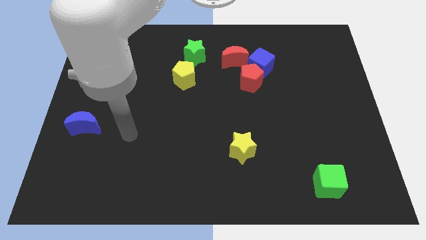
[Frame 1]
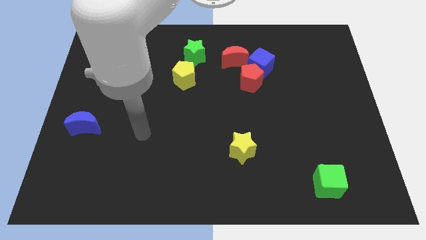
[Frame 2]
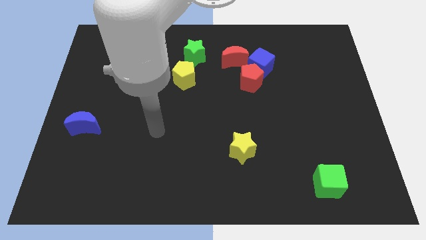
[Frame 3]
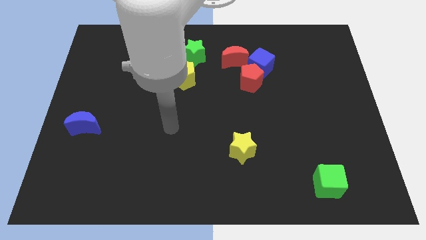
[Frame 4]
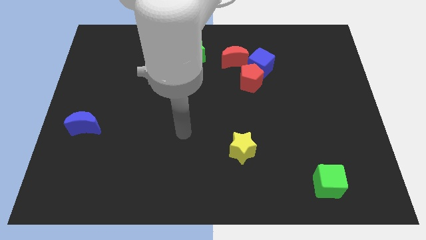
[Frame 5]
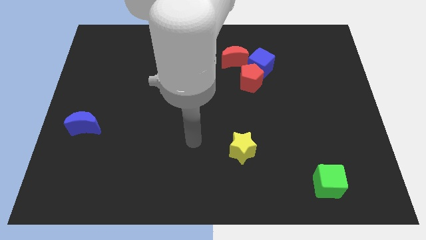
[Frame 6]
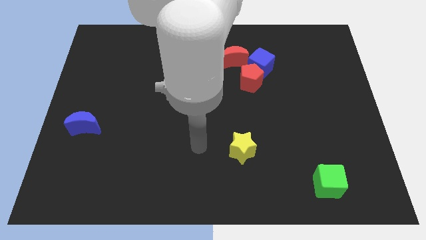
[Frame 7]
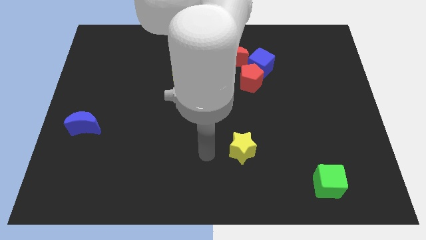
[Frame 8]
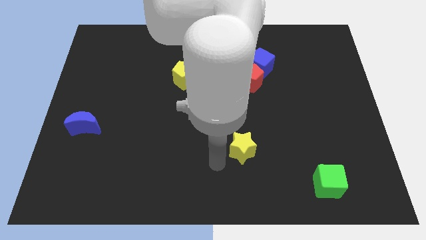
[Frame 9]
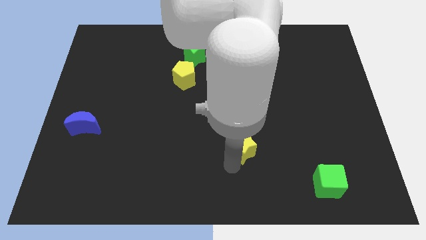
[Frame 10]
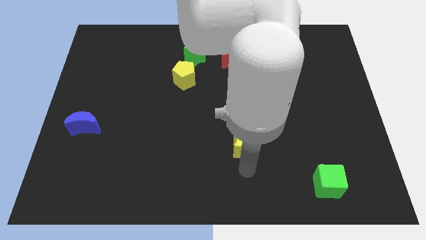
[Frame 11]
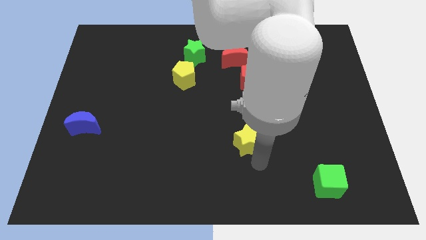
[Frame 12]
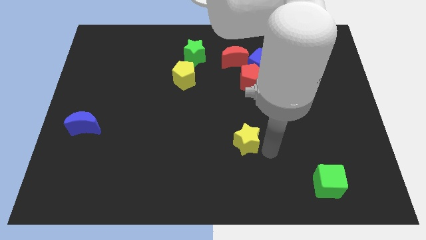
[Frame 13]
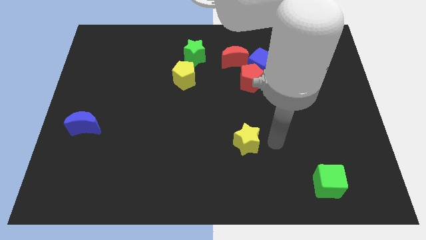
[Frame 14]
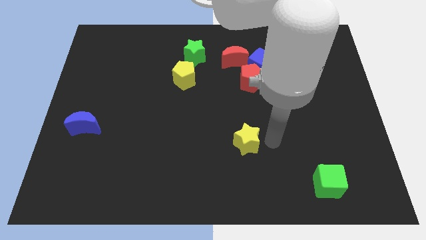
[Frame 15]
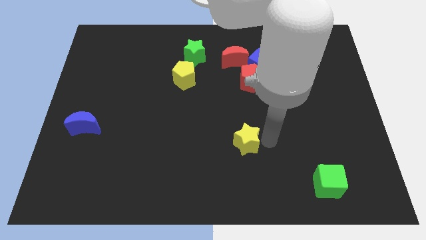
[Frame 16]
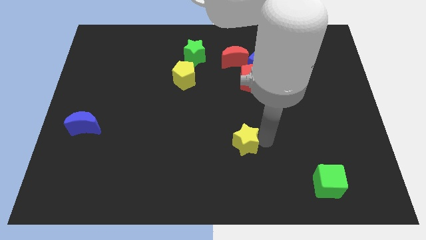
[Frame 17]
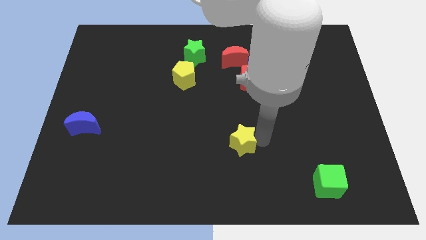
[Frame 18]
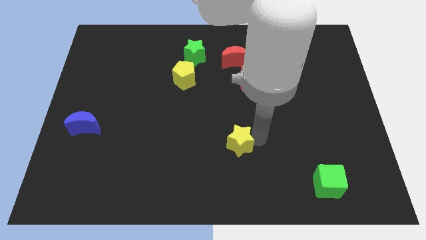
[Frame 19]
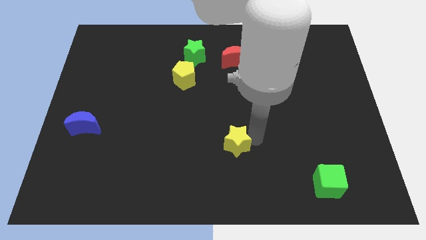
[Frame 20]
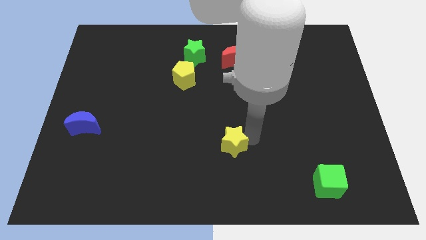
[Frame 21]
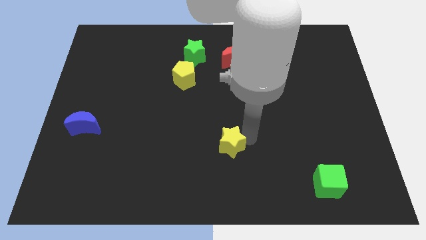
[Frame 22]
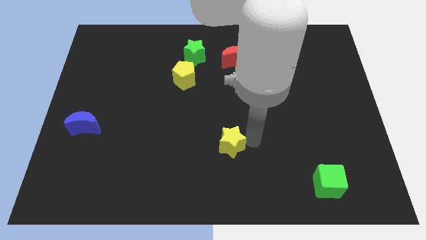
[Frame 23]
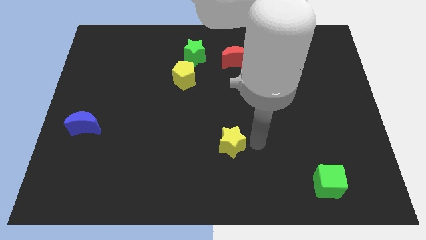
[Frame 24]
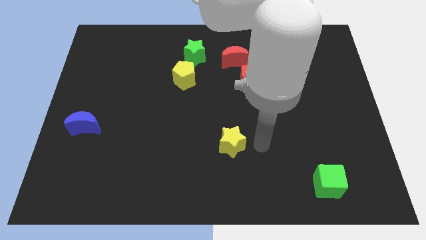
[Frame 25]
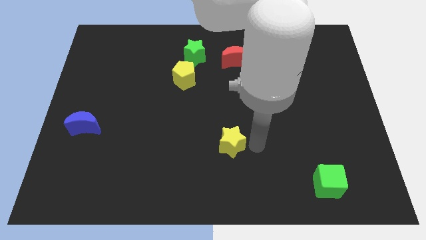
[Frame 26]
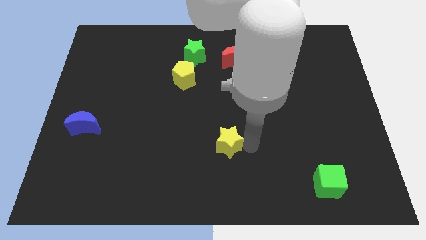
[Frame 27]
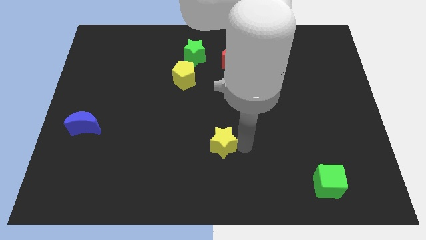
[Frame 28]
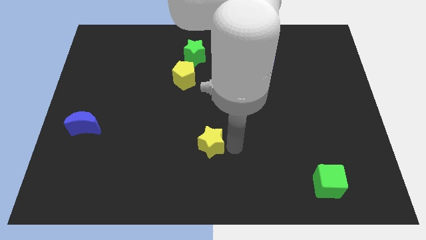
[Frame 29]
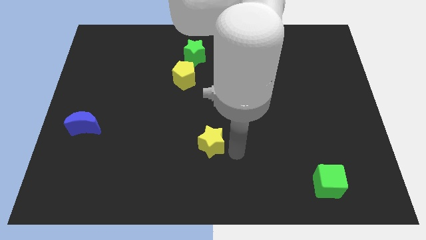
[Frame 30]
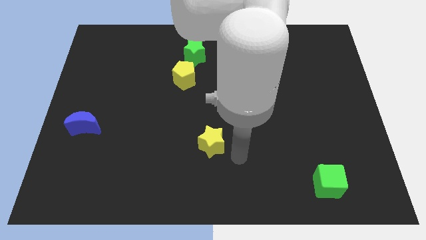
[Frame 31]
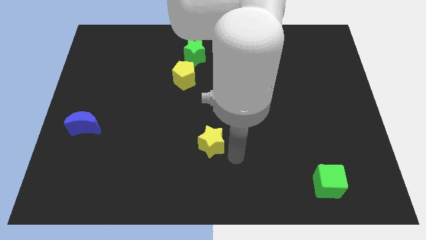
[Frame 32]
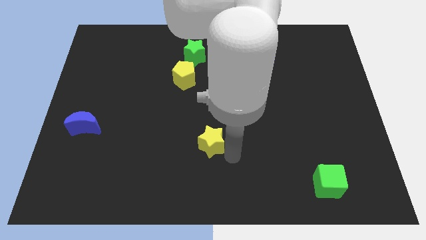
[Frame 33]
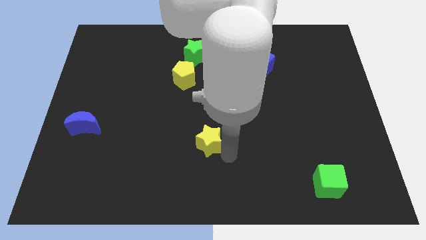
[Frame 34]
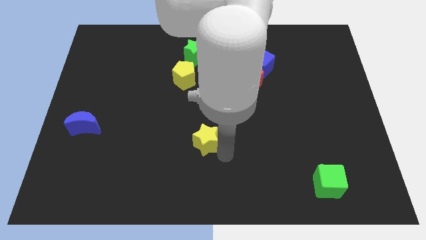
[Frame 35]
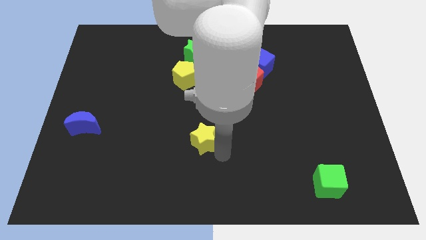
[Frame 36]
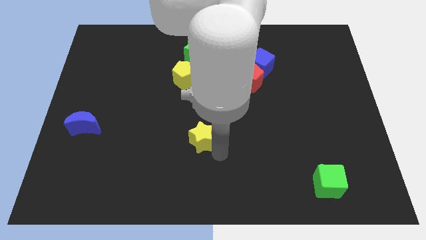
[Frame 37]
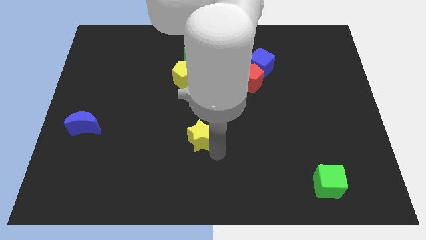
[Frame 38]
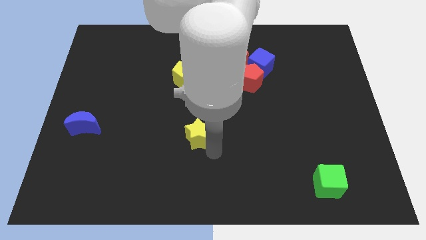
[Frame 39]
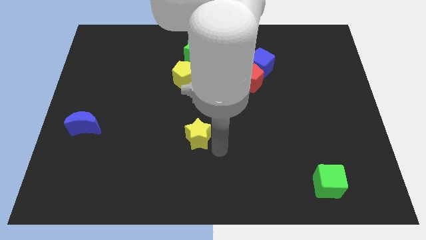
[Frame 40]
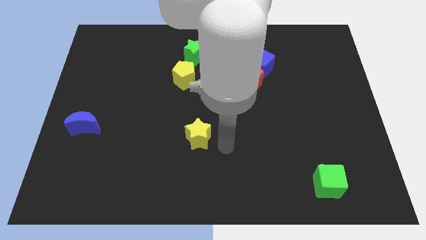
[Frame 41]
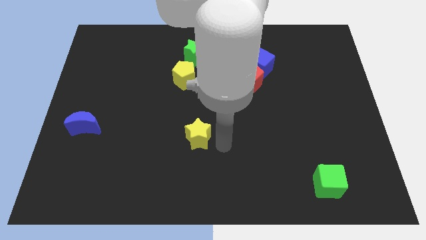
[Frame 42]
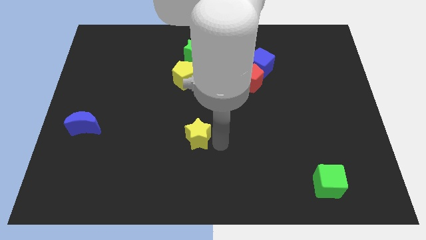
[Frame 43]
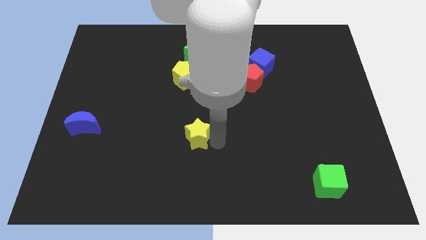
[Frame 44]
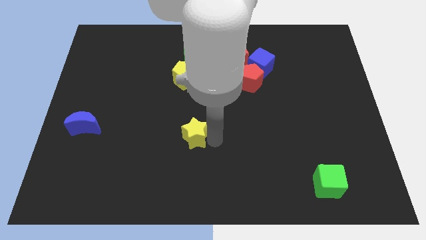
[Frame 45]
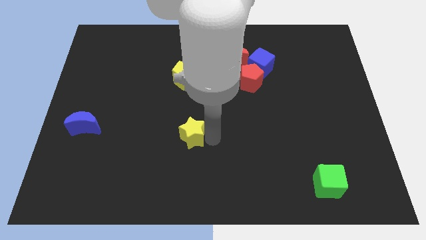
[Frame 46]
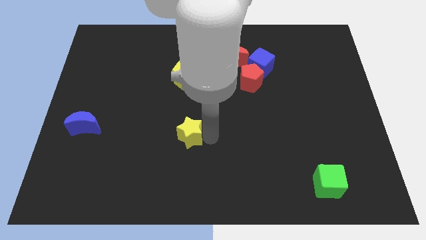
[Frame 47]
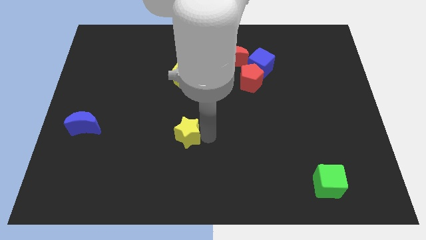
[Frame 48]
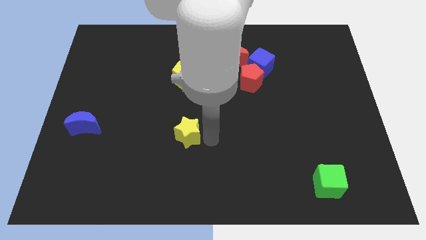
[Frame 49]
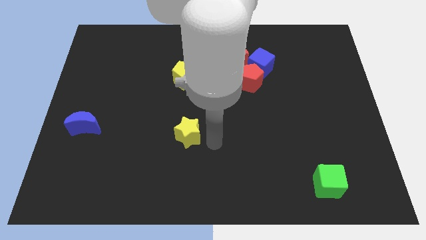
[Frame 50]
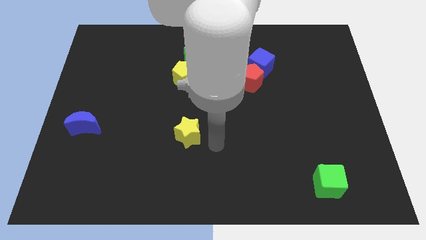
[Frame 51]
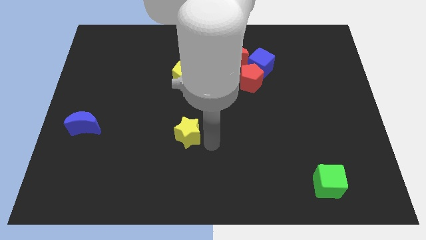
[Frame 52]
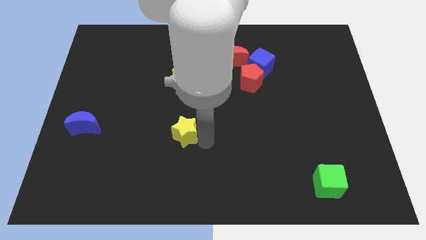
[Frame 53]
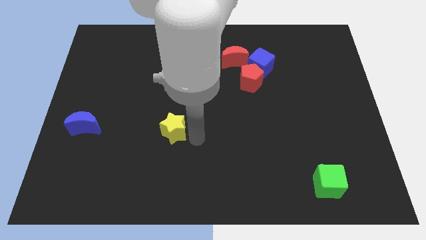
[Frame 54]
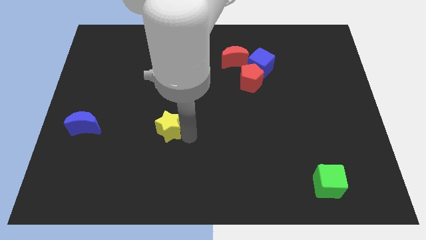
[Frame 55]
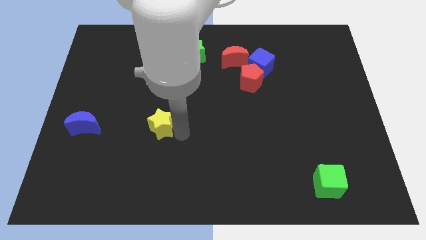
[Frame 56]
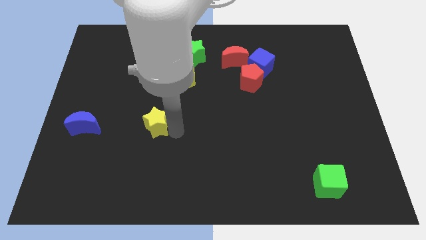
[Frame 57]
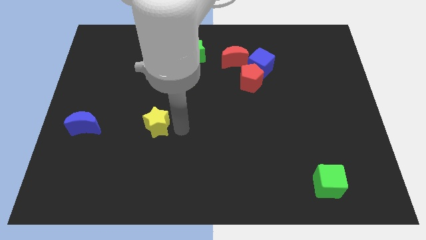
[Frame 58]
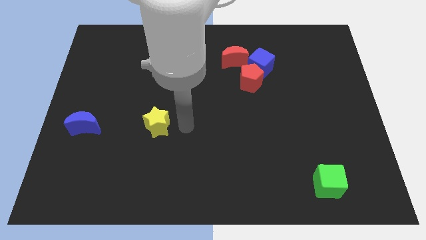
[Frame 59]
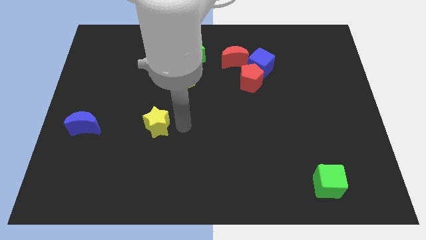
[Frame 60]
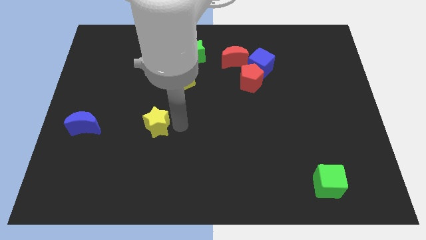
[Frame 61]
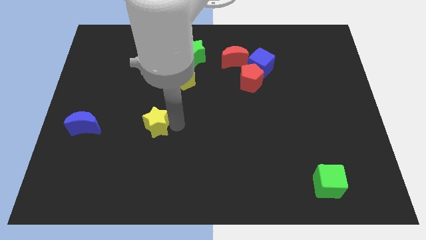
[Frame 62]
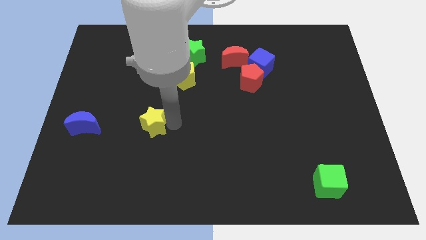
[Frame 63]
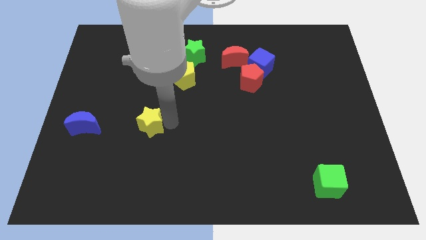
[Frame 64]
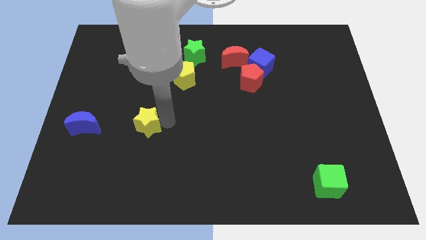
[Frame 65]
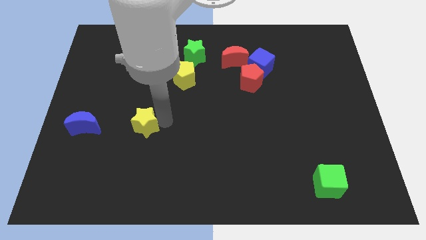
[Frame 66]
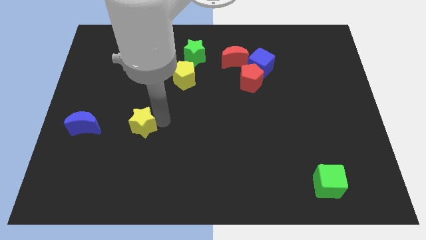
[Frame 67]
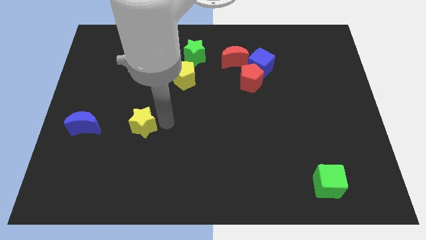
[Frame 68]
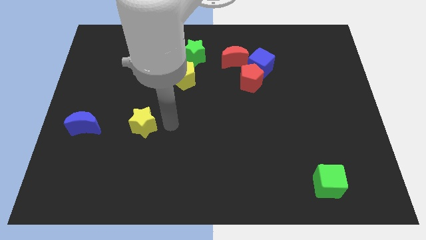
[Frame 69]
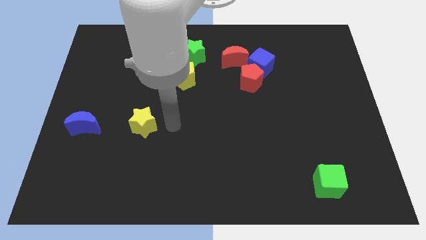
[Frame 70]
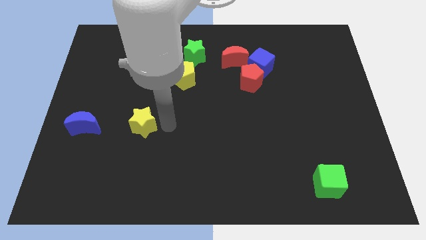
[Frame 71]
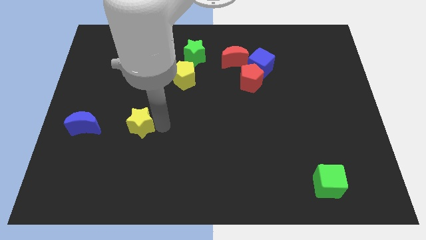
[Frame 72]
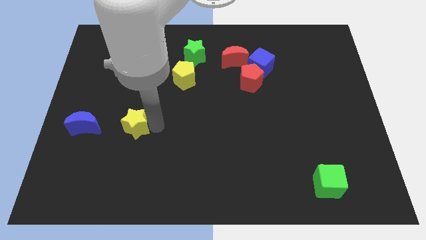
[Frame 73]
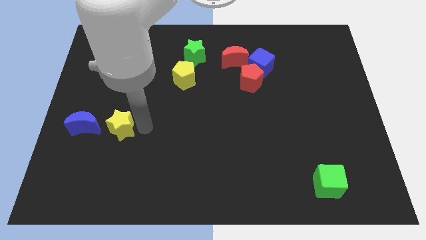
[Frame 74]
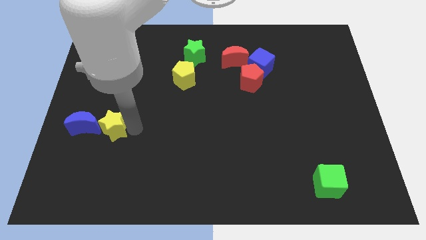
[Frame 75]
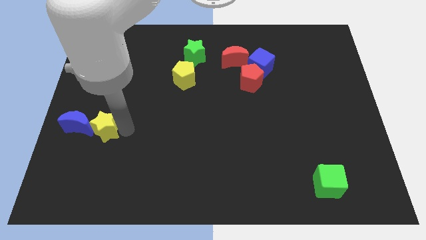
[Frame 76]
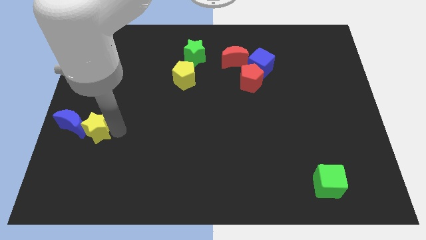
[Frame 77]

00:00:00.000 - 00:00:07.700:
put the yellow star to the blue moon
